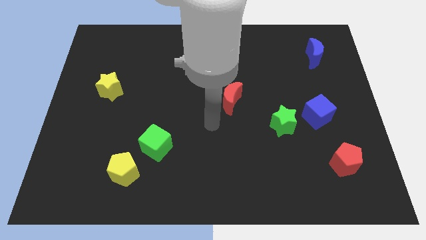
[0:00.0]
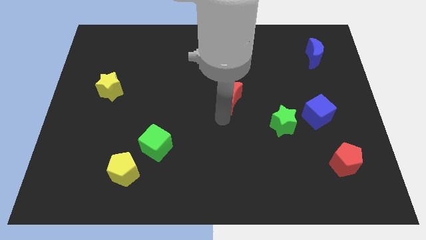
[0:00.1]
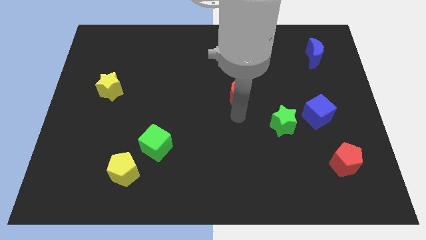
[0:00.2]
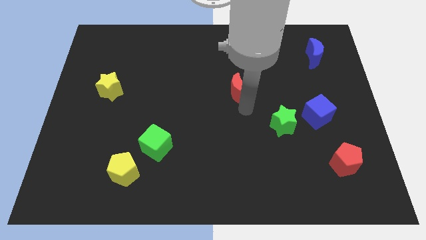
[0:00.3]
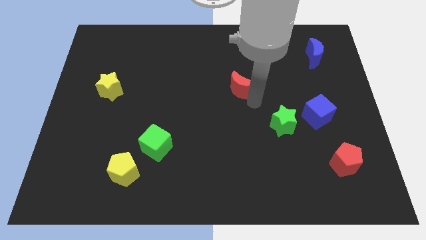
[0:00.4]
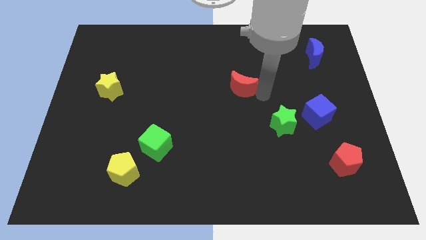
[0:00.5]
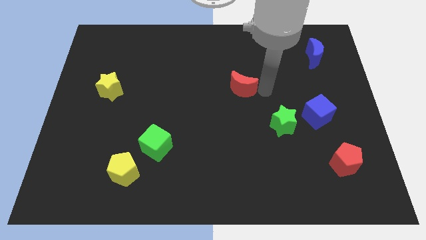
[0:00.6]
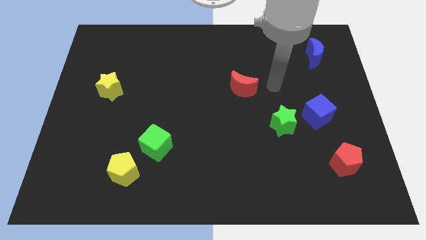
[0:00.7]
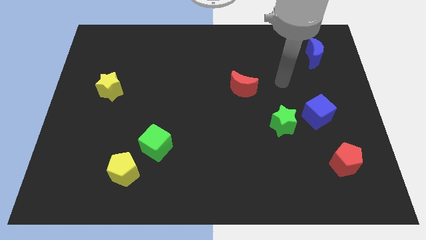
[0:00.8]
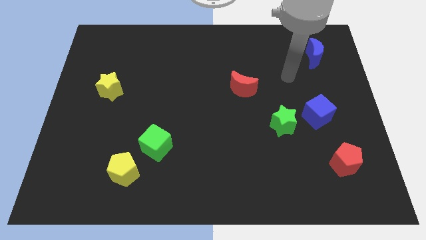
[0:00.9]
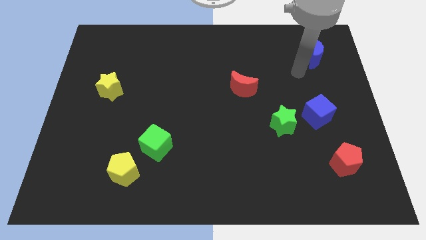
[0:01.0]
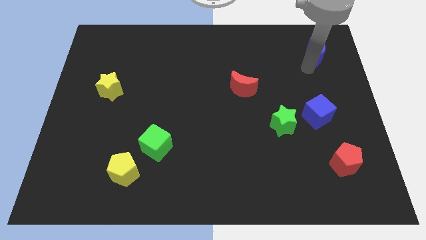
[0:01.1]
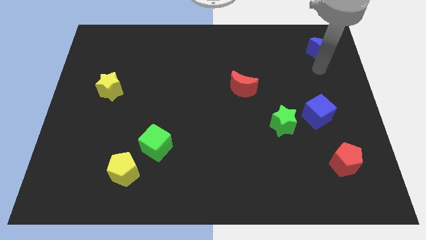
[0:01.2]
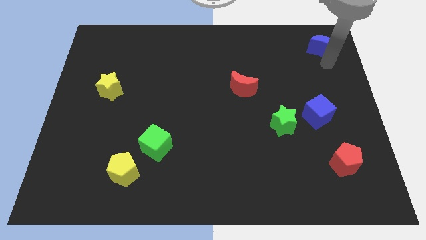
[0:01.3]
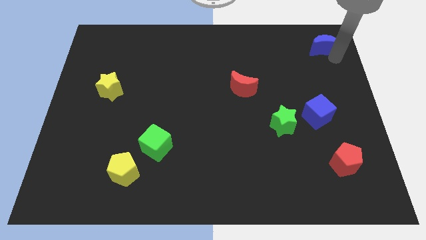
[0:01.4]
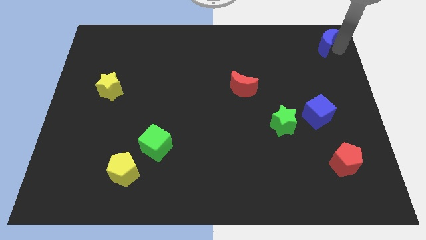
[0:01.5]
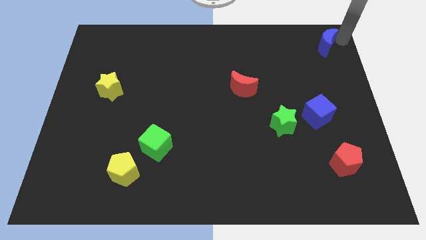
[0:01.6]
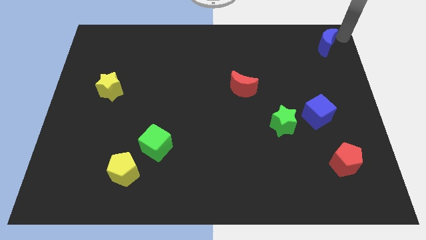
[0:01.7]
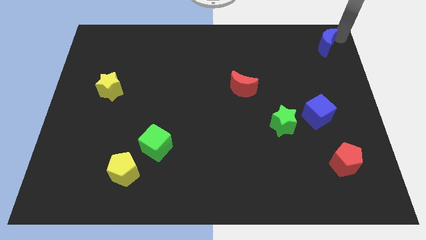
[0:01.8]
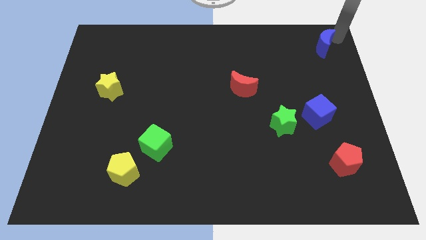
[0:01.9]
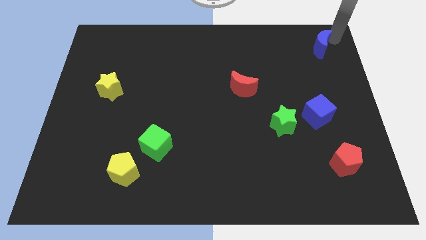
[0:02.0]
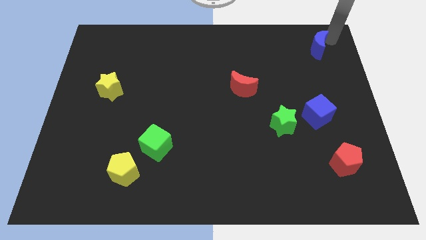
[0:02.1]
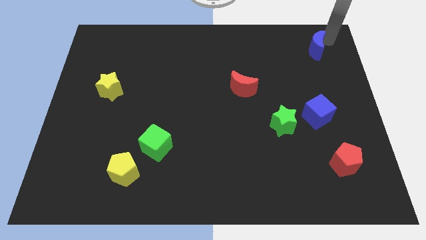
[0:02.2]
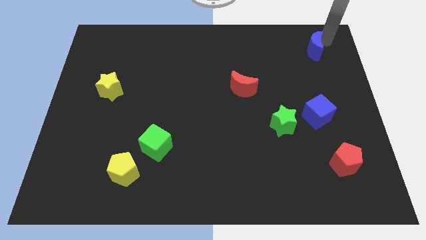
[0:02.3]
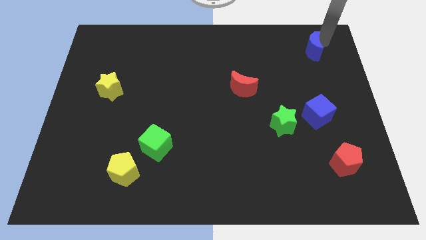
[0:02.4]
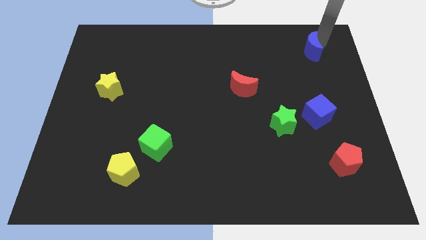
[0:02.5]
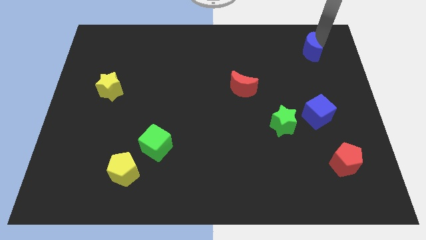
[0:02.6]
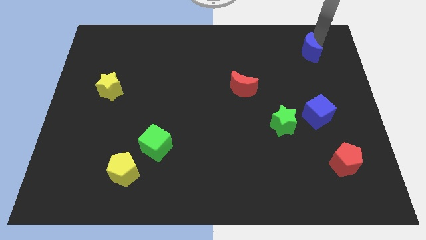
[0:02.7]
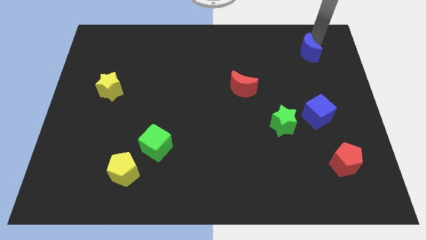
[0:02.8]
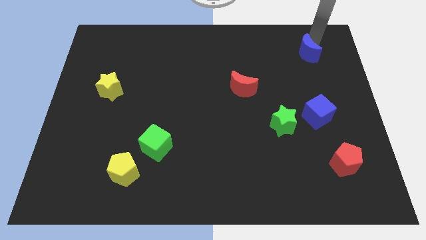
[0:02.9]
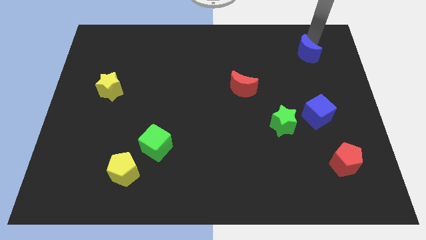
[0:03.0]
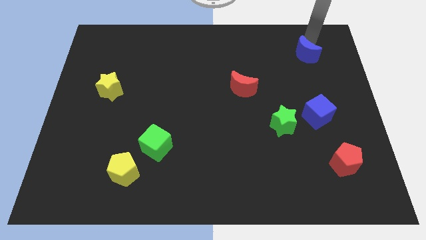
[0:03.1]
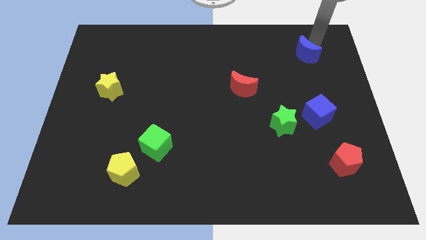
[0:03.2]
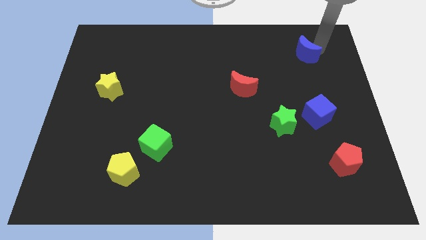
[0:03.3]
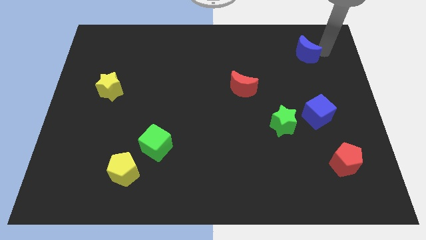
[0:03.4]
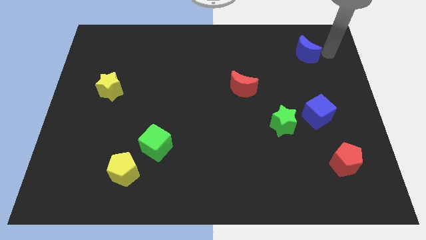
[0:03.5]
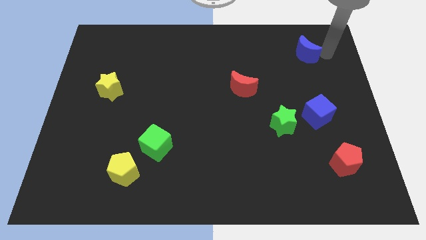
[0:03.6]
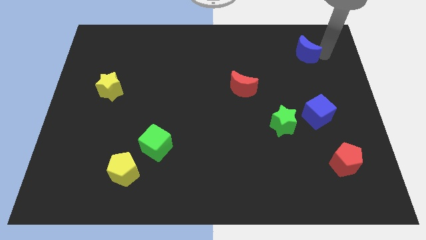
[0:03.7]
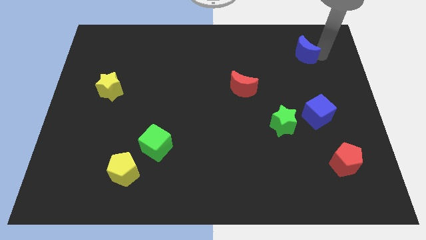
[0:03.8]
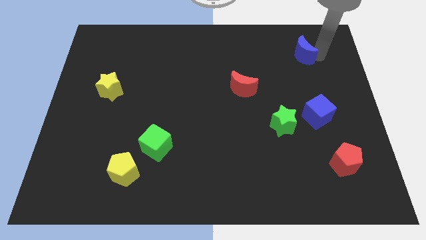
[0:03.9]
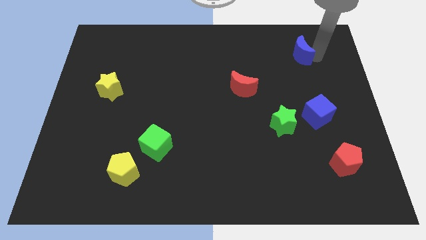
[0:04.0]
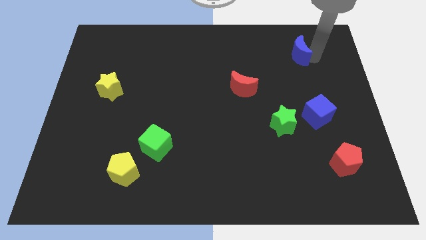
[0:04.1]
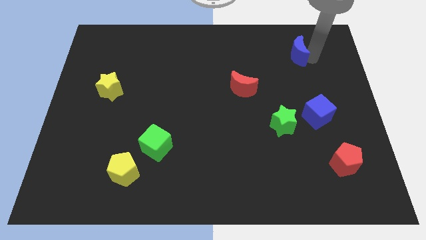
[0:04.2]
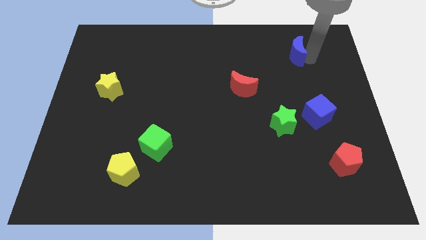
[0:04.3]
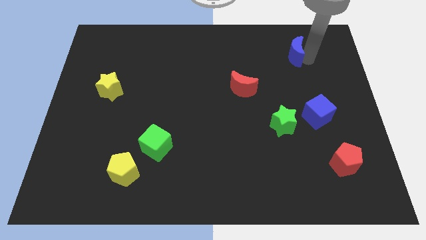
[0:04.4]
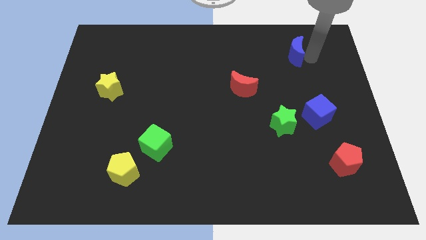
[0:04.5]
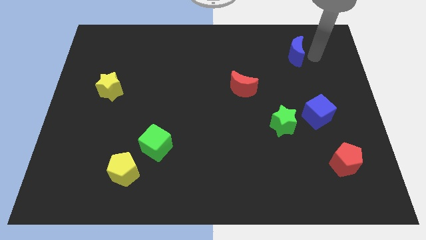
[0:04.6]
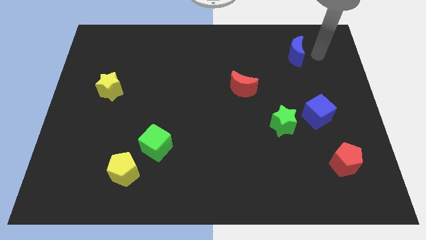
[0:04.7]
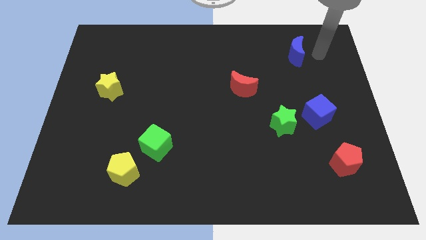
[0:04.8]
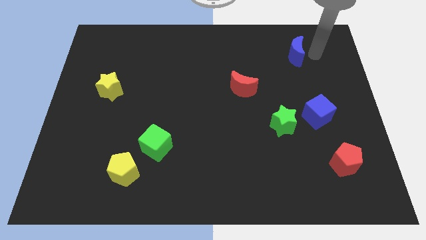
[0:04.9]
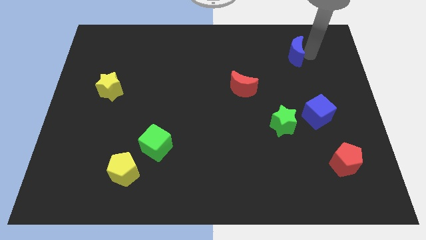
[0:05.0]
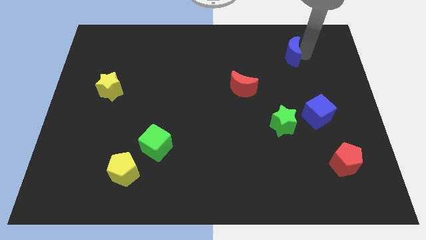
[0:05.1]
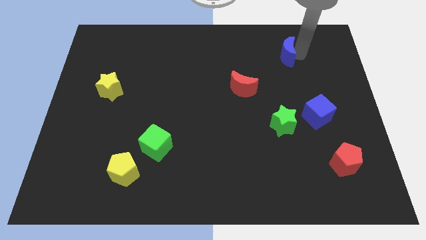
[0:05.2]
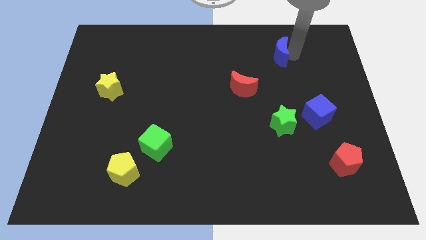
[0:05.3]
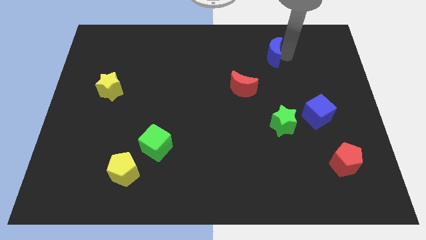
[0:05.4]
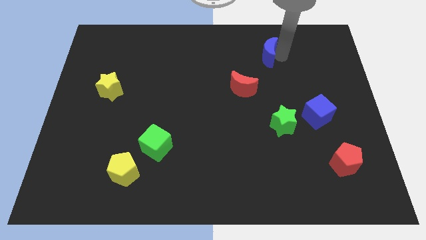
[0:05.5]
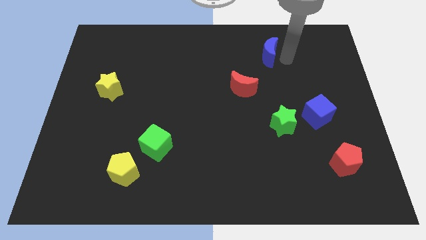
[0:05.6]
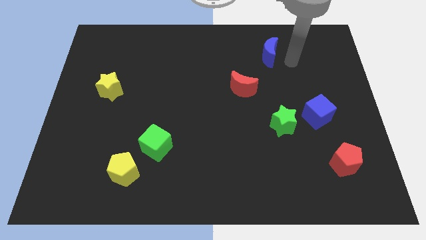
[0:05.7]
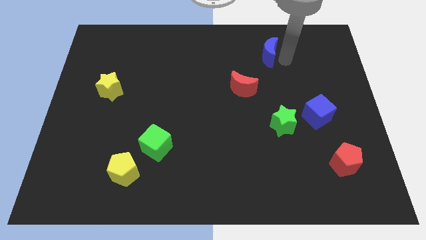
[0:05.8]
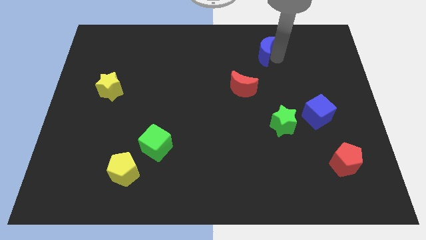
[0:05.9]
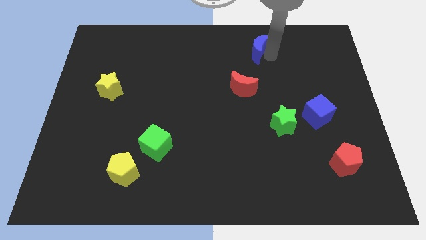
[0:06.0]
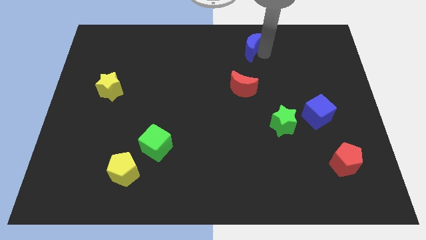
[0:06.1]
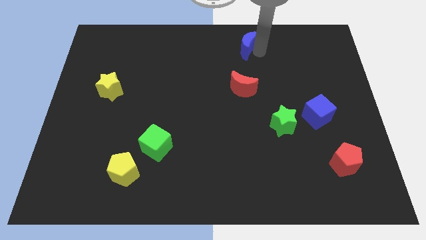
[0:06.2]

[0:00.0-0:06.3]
move the blue moon to the towards your base
